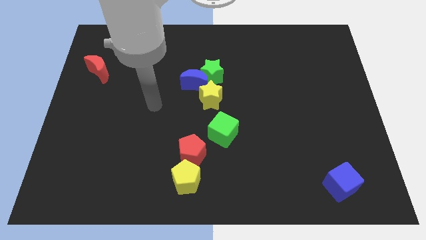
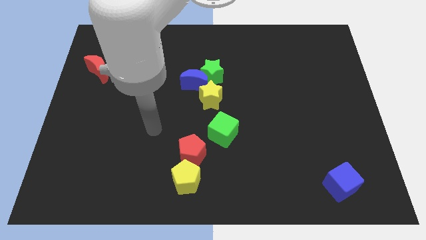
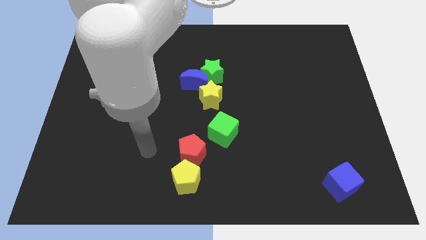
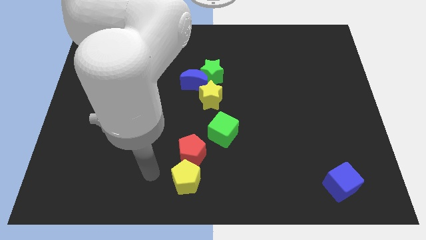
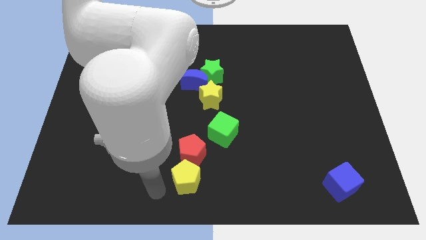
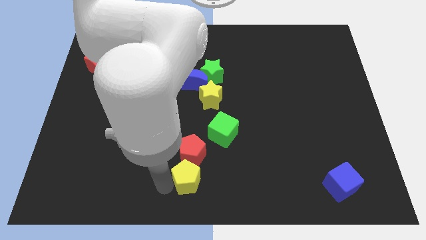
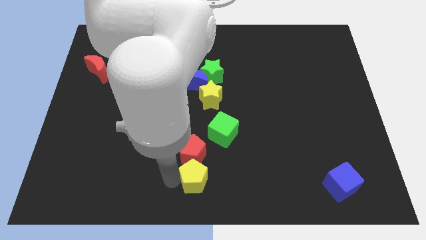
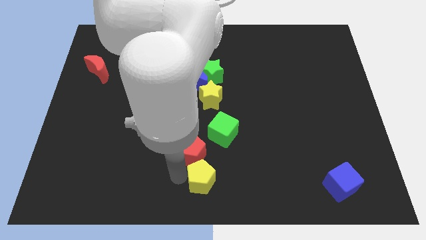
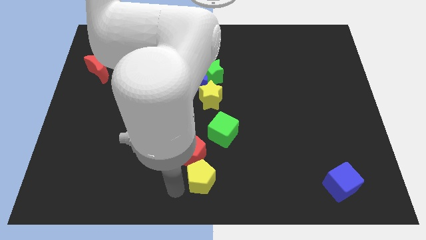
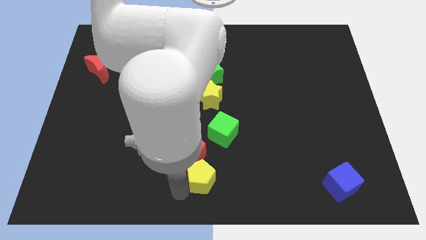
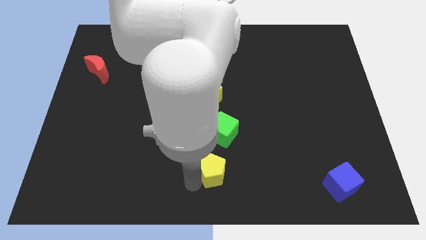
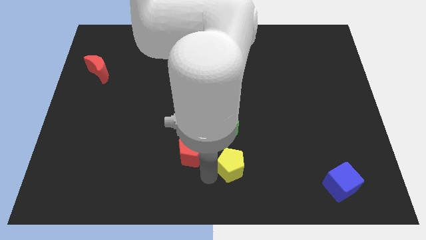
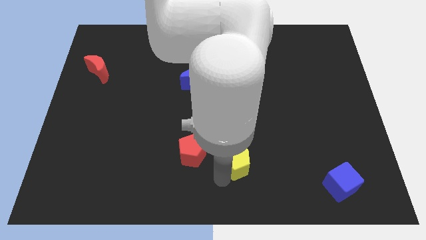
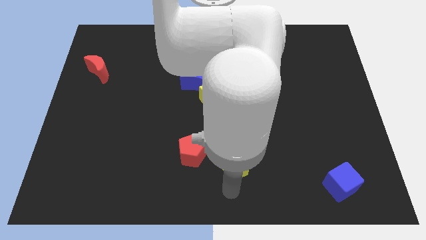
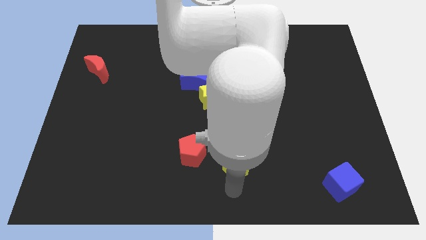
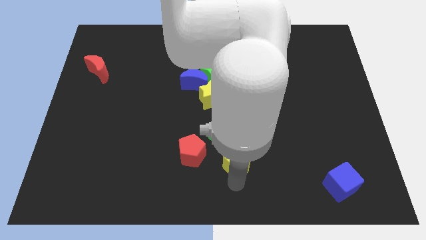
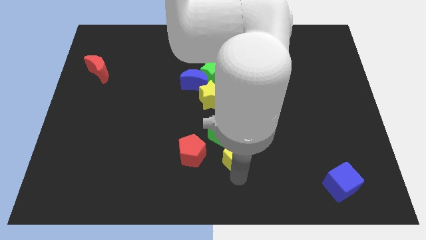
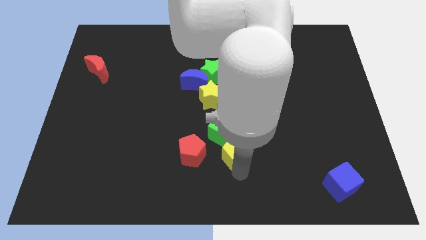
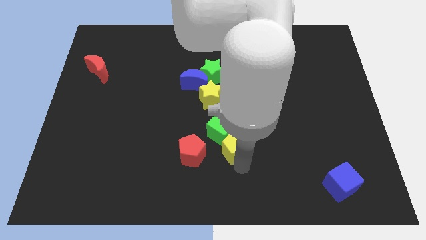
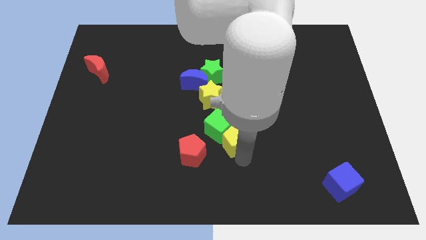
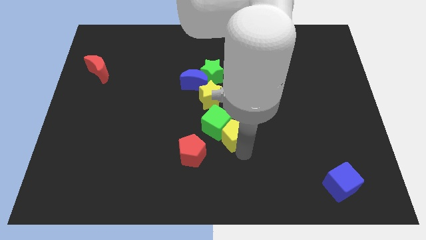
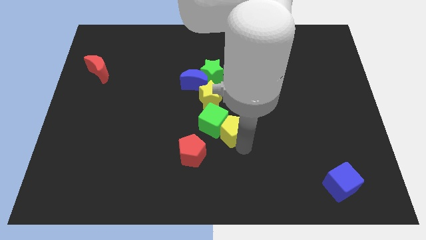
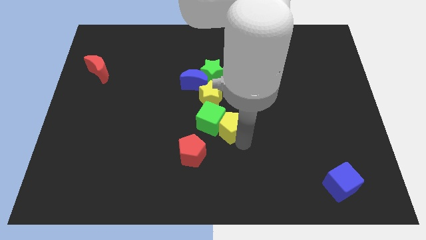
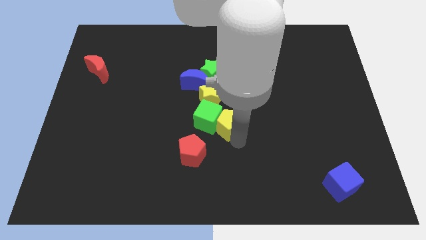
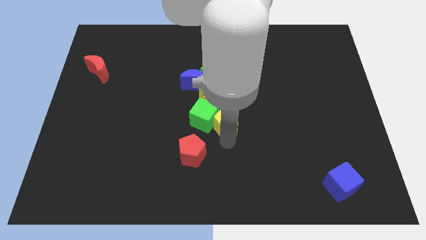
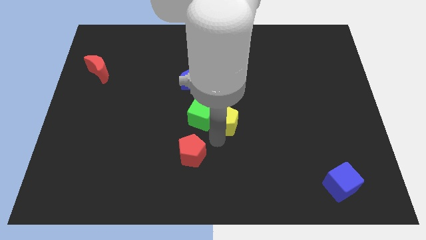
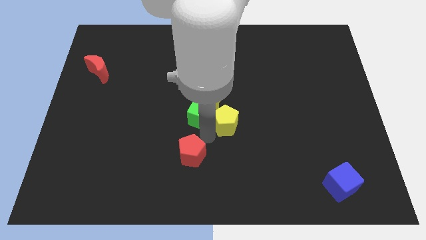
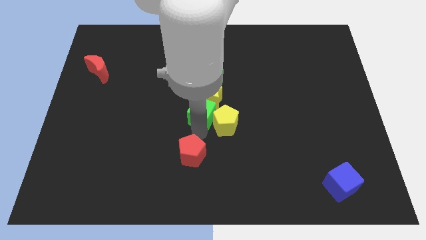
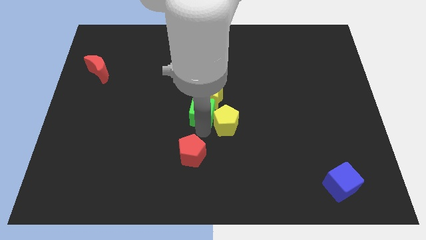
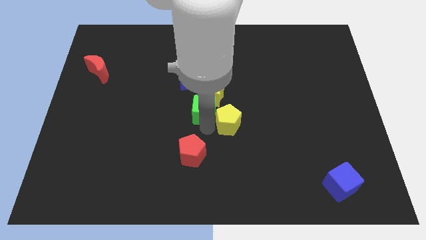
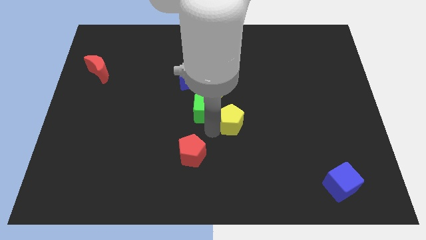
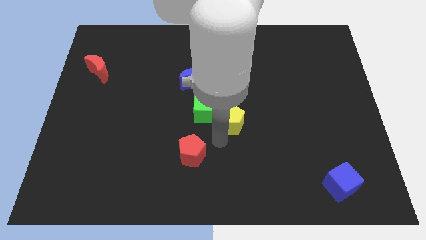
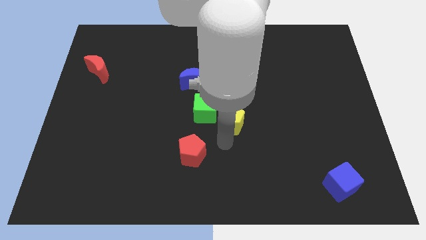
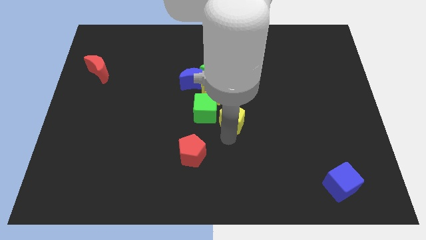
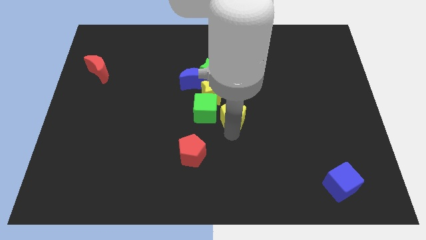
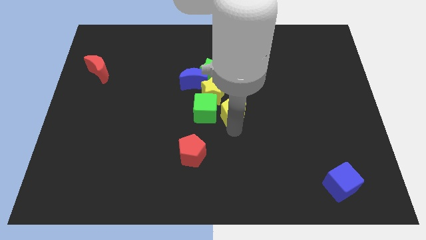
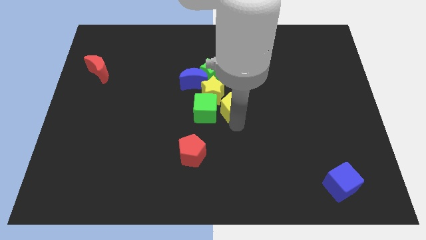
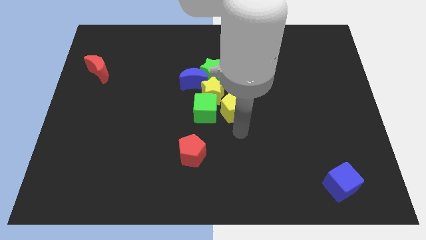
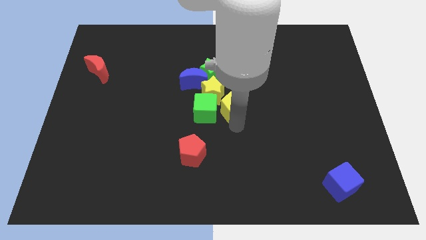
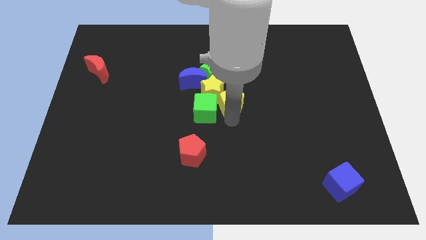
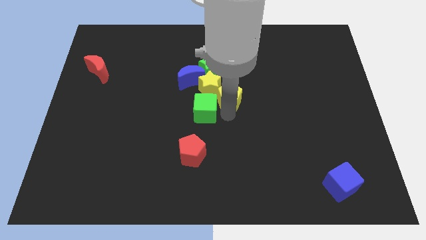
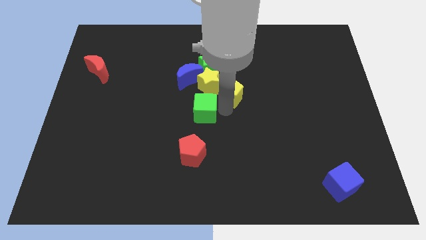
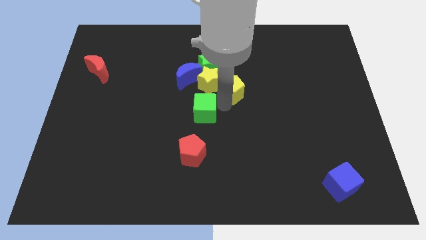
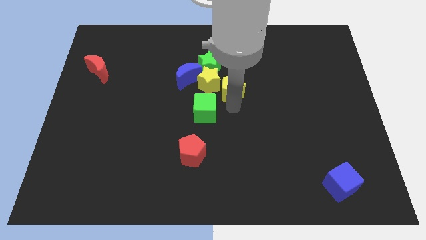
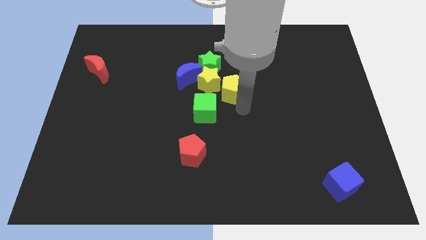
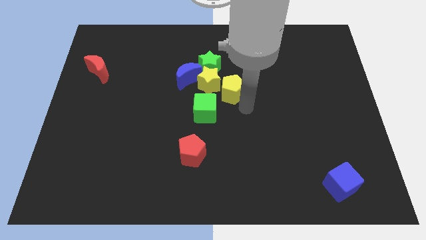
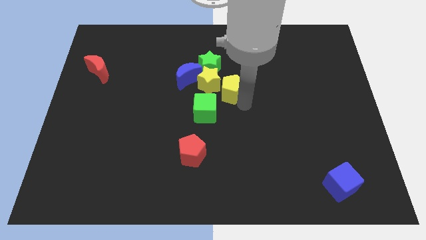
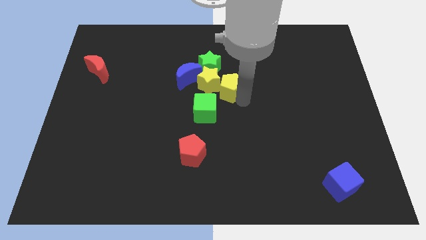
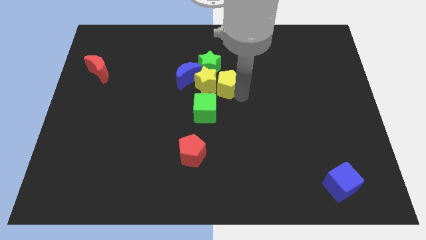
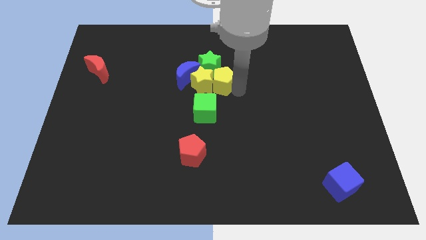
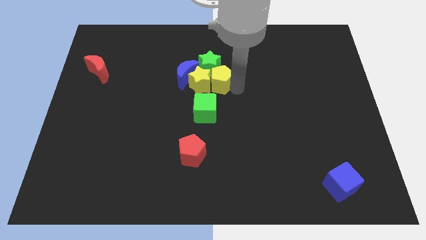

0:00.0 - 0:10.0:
move the yellow pentagon to the green star

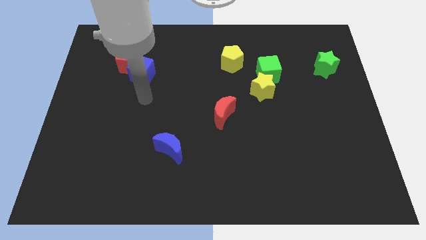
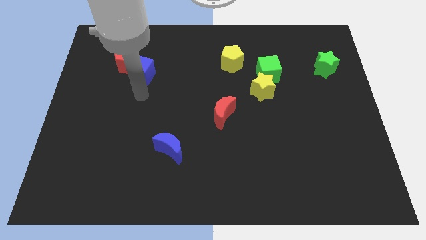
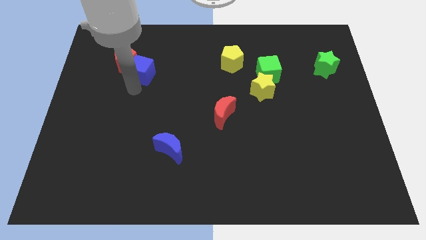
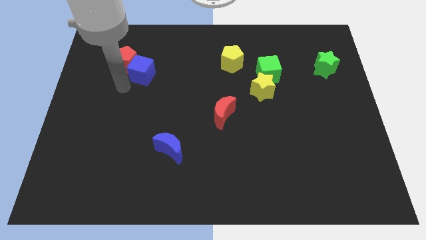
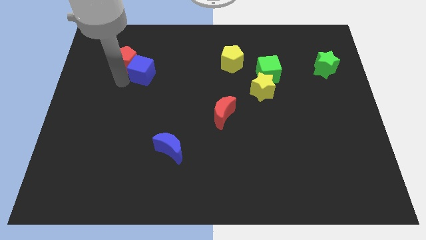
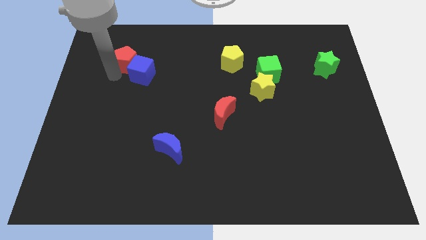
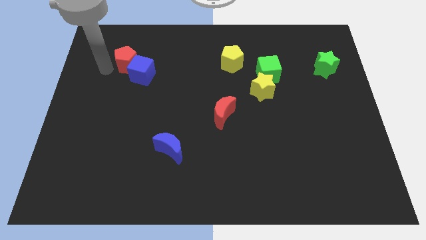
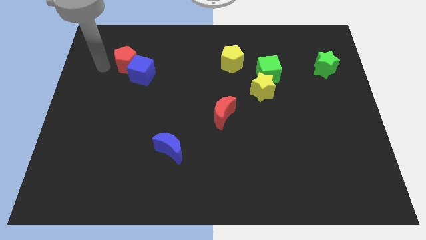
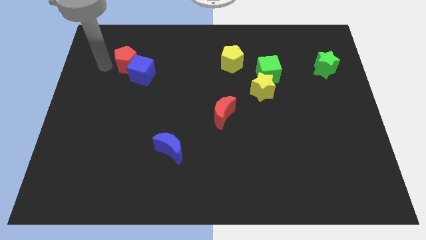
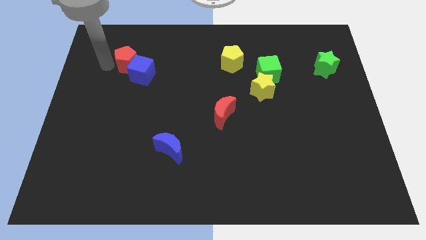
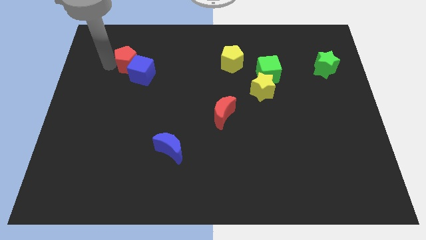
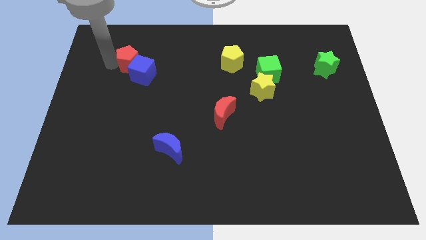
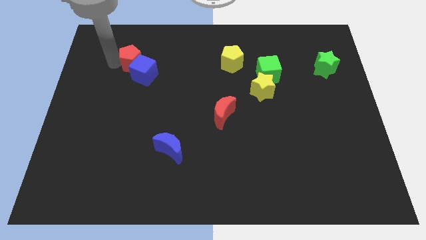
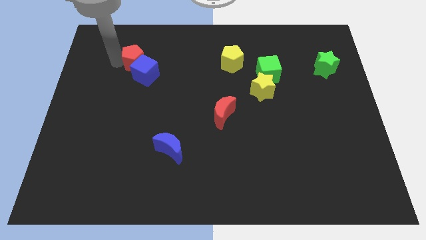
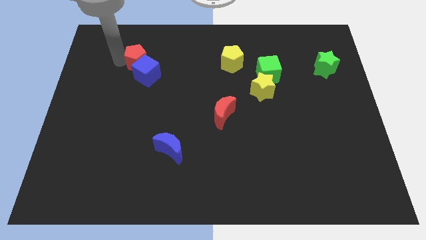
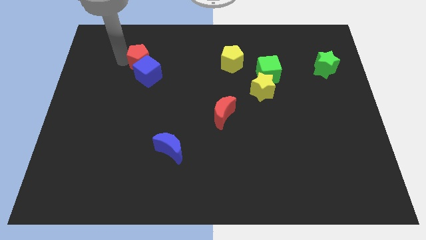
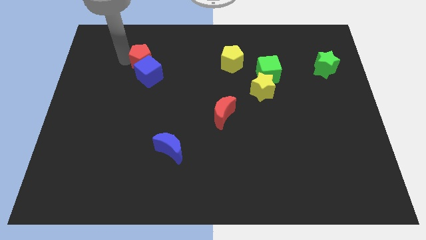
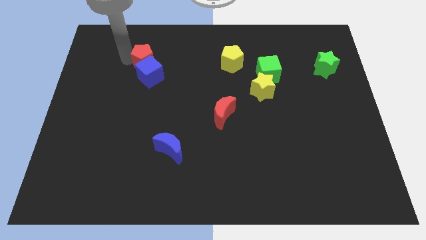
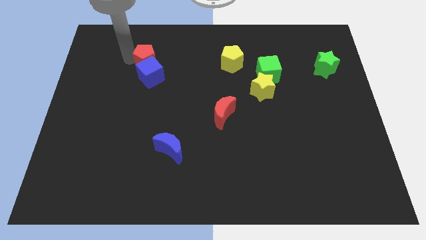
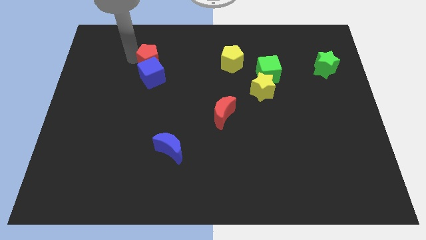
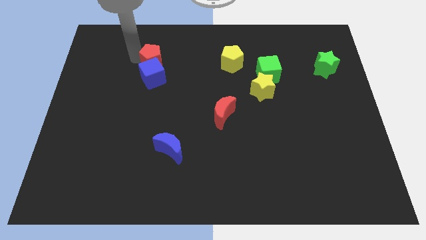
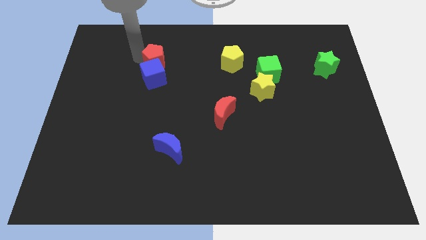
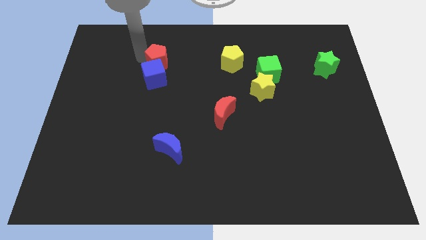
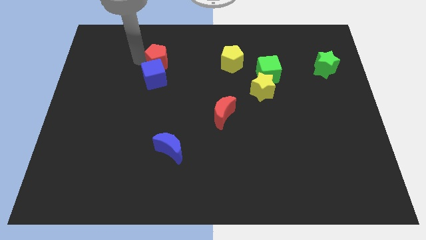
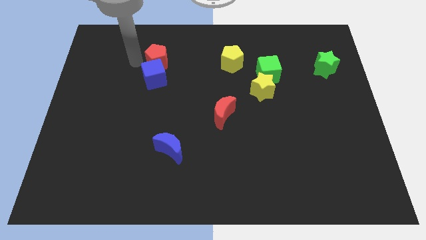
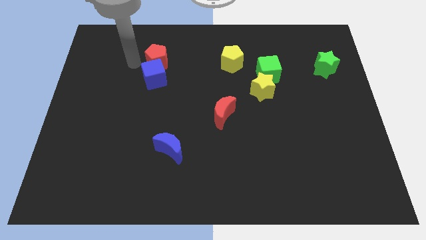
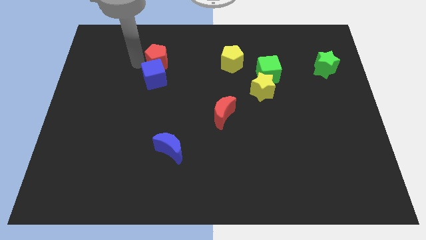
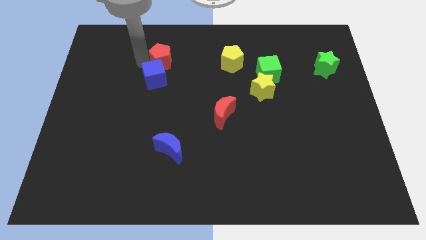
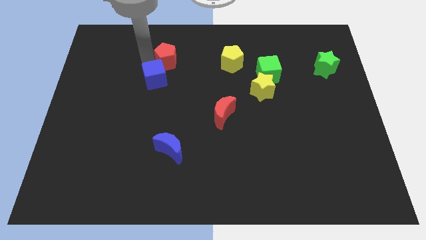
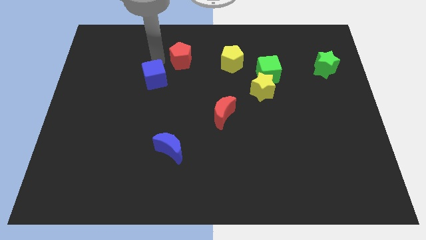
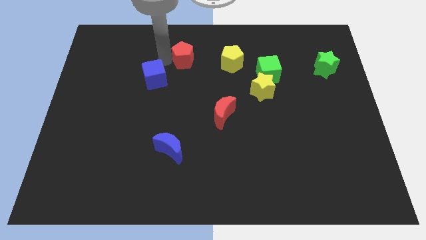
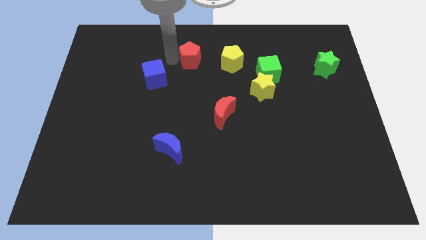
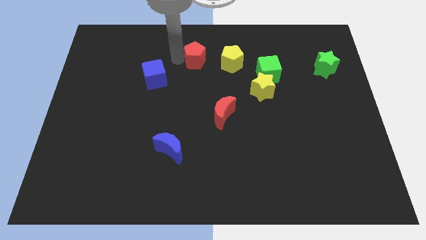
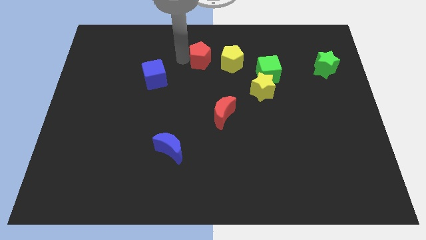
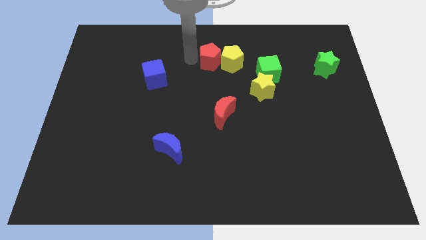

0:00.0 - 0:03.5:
push the red pentagon towards the yellow pentagon
